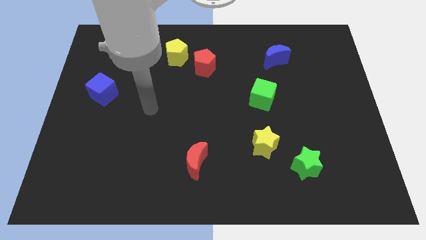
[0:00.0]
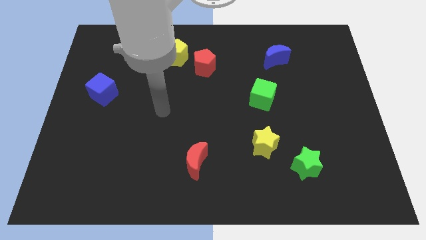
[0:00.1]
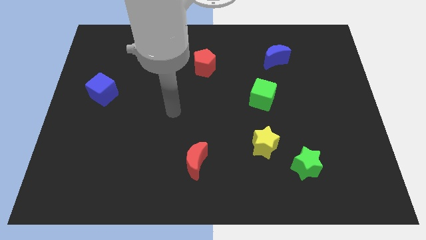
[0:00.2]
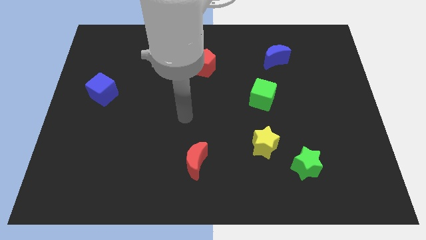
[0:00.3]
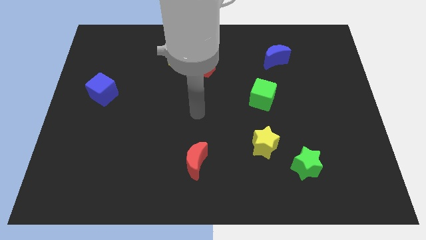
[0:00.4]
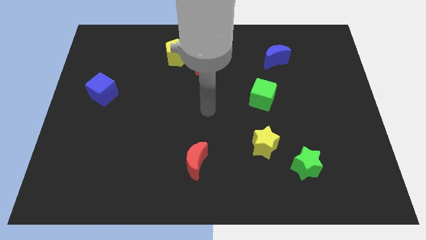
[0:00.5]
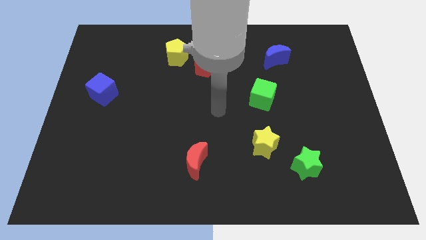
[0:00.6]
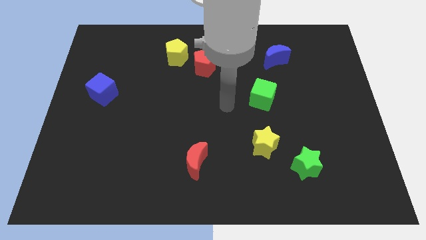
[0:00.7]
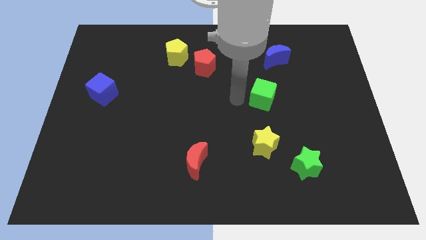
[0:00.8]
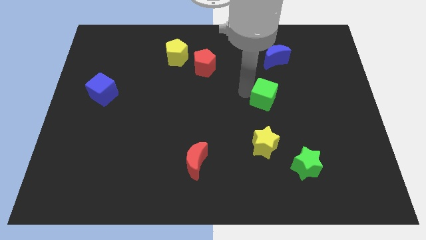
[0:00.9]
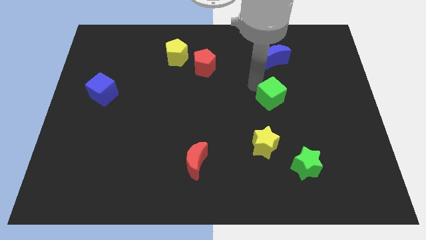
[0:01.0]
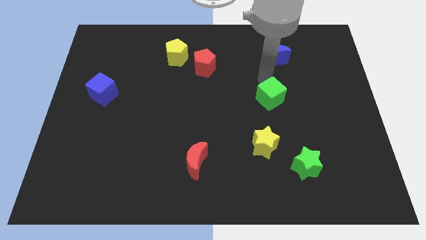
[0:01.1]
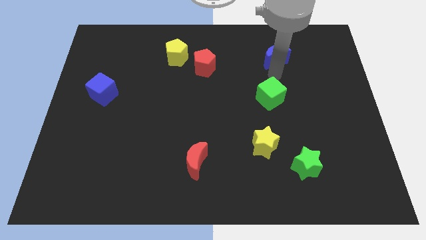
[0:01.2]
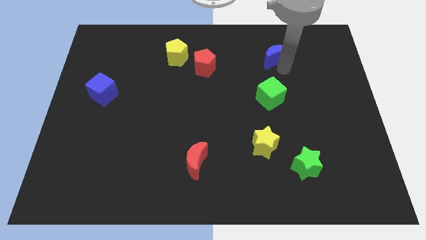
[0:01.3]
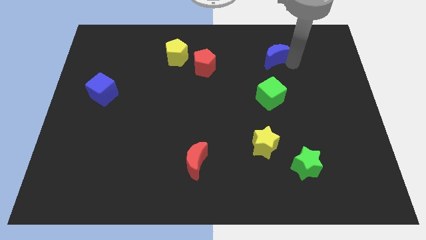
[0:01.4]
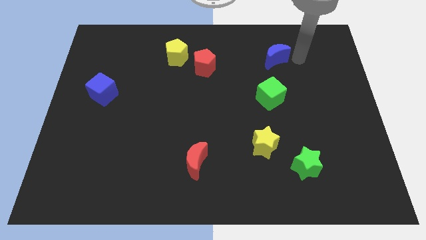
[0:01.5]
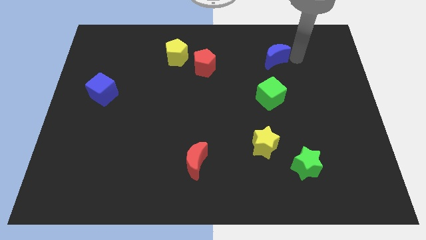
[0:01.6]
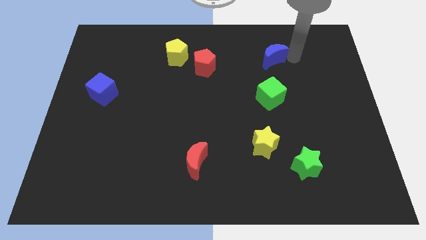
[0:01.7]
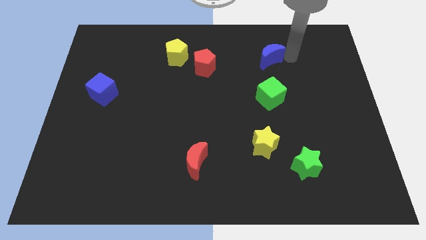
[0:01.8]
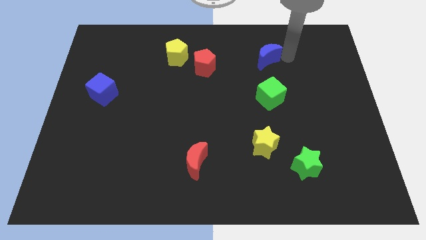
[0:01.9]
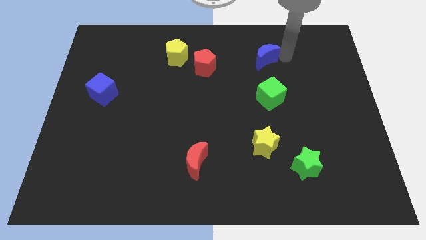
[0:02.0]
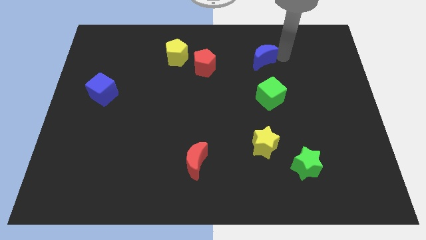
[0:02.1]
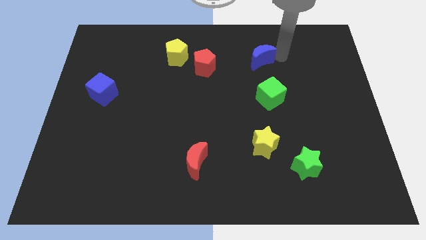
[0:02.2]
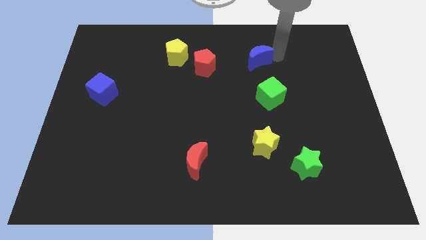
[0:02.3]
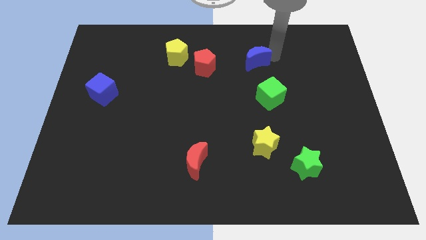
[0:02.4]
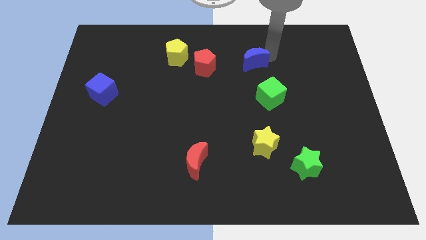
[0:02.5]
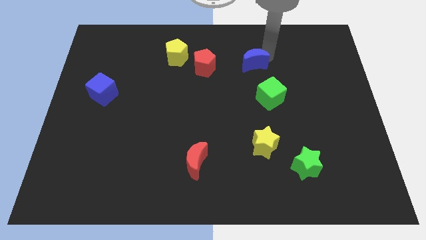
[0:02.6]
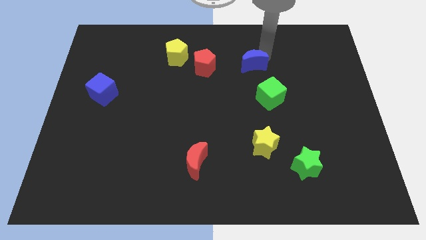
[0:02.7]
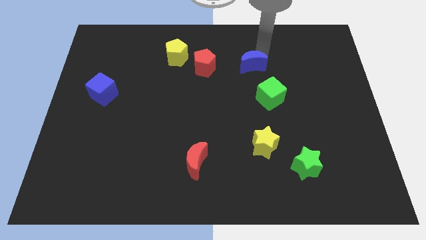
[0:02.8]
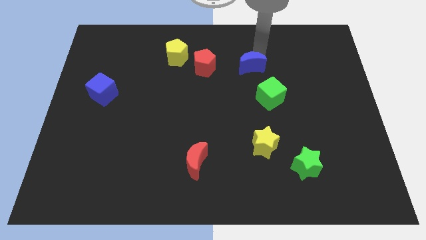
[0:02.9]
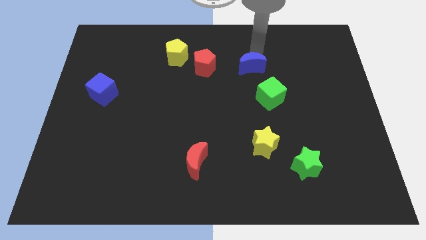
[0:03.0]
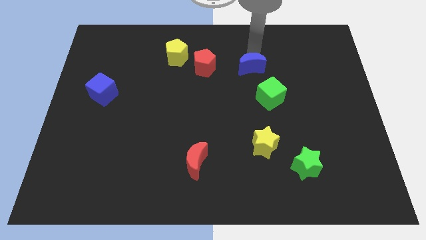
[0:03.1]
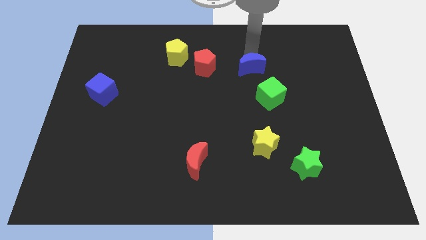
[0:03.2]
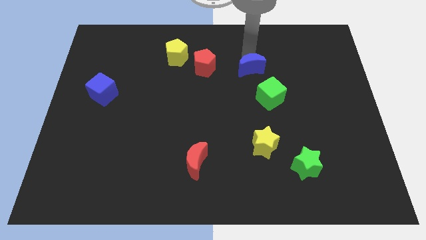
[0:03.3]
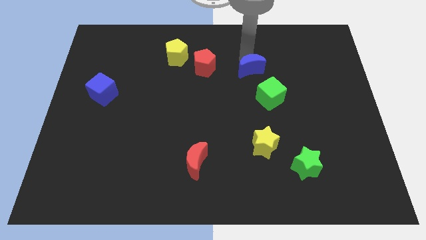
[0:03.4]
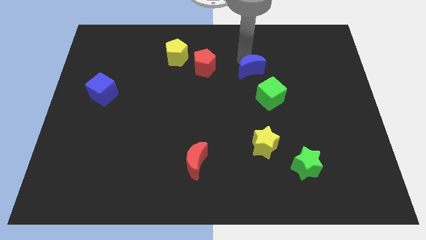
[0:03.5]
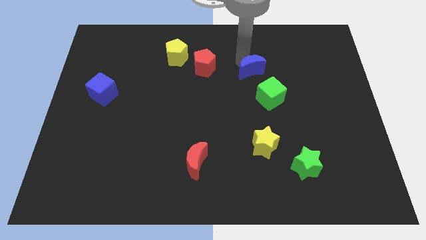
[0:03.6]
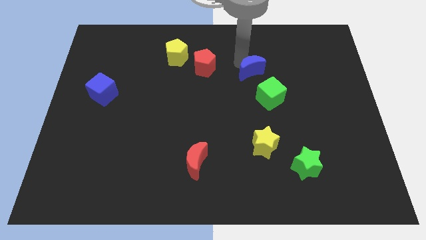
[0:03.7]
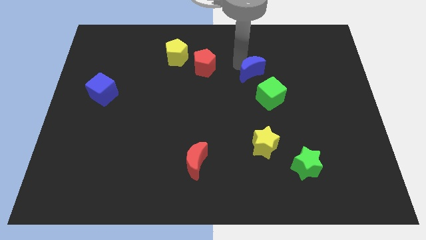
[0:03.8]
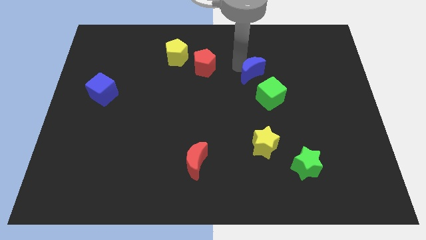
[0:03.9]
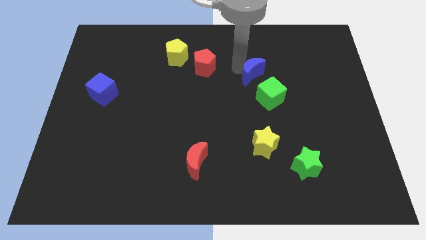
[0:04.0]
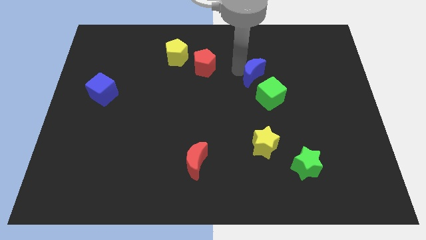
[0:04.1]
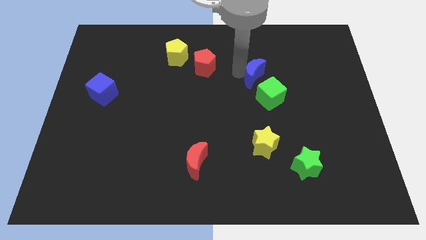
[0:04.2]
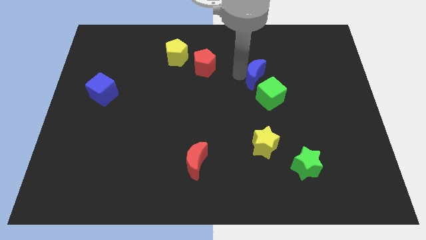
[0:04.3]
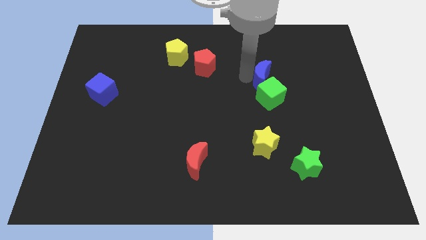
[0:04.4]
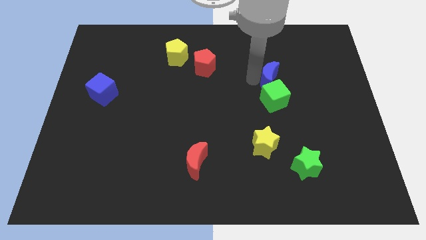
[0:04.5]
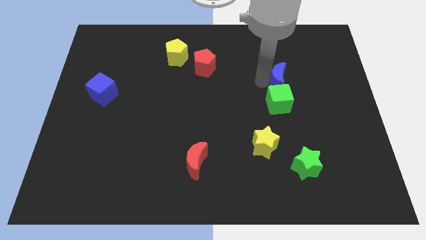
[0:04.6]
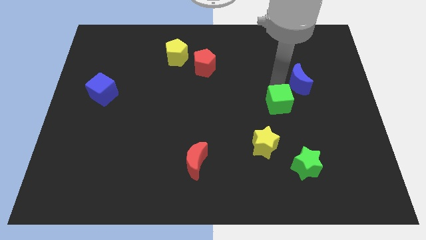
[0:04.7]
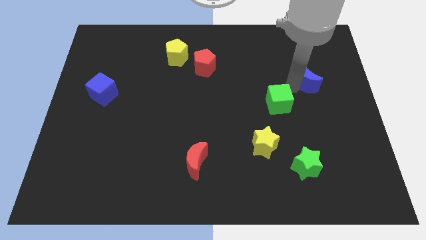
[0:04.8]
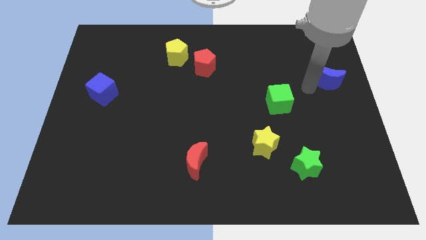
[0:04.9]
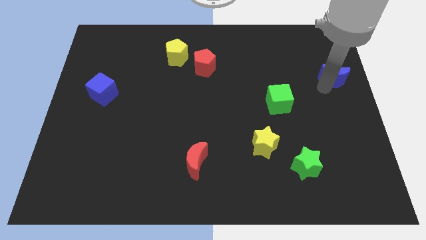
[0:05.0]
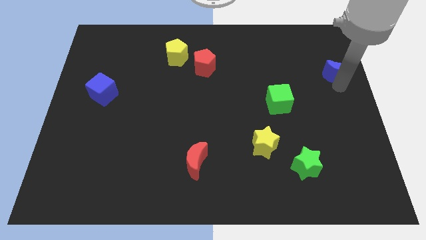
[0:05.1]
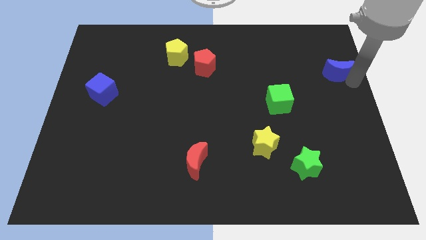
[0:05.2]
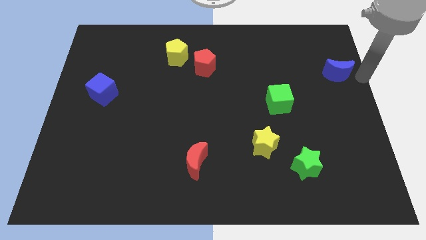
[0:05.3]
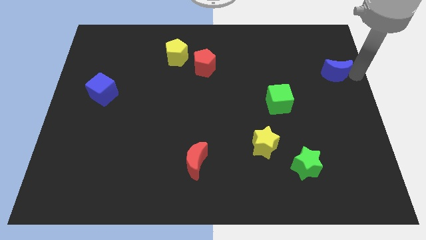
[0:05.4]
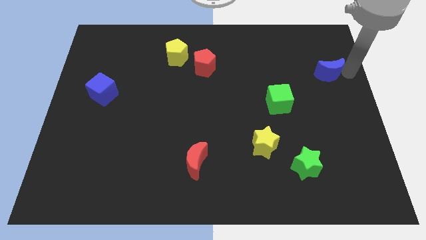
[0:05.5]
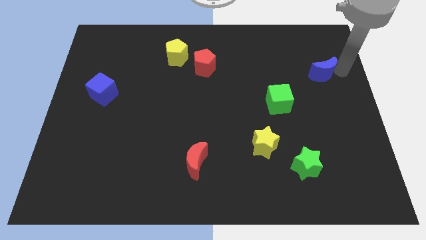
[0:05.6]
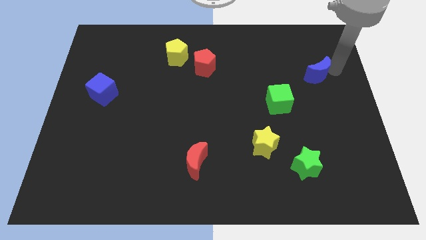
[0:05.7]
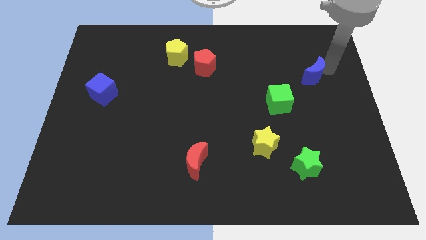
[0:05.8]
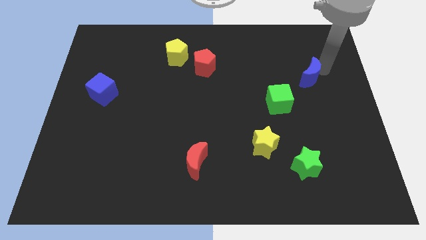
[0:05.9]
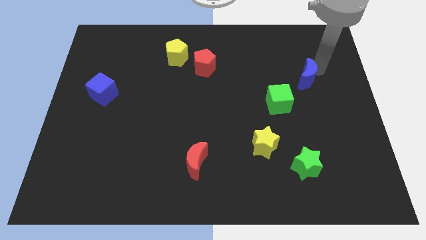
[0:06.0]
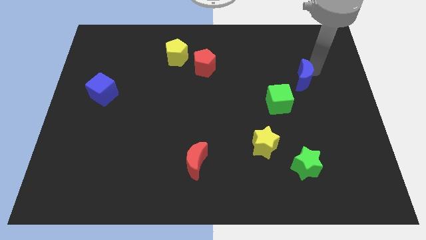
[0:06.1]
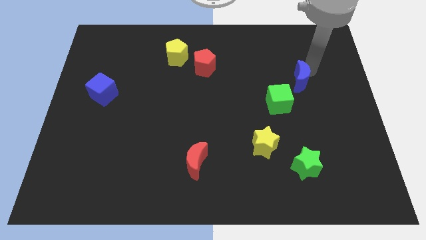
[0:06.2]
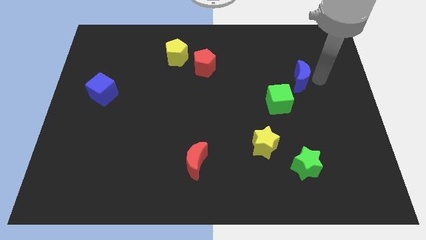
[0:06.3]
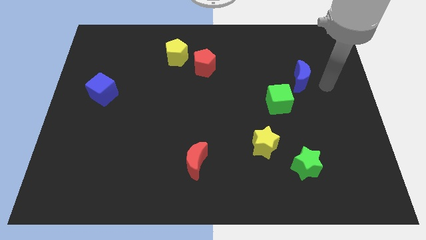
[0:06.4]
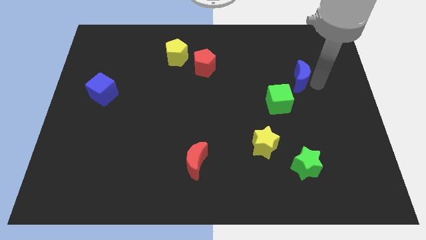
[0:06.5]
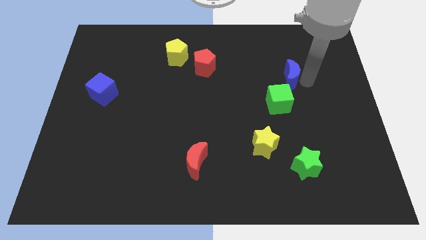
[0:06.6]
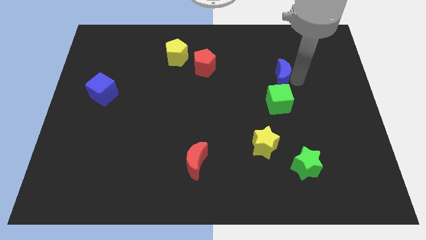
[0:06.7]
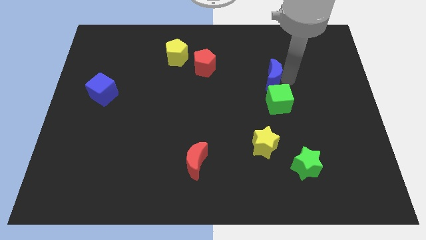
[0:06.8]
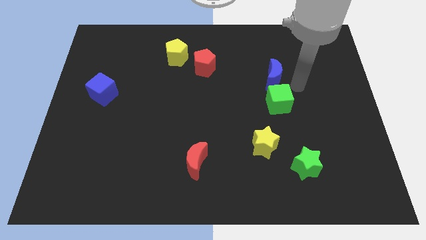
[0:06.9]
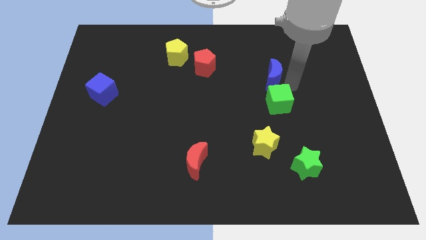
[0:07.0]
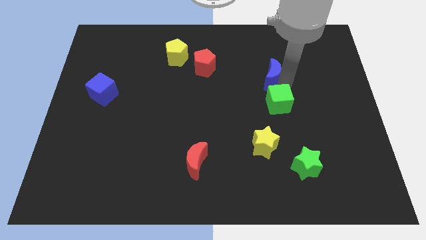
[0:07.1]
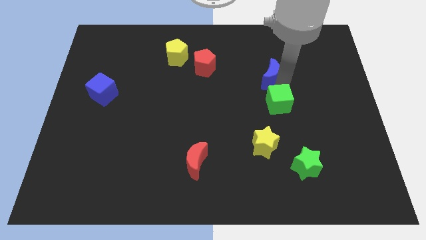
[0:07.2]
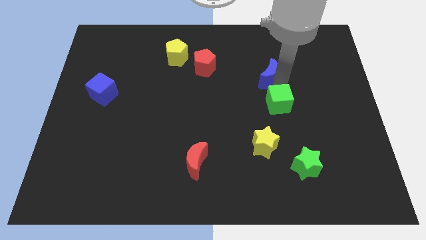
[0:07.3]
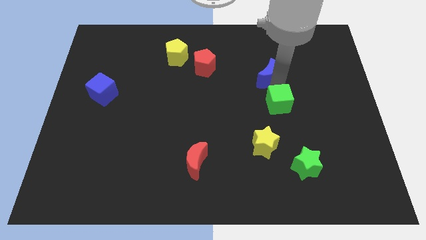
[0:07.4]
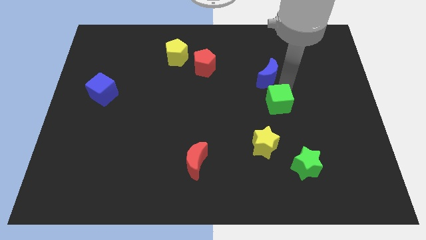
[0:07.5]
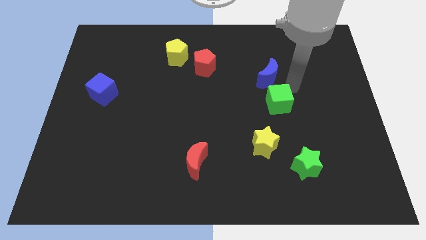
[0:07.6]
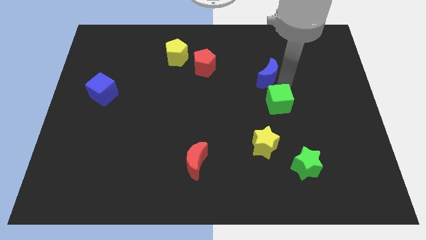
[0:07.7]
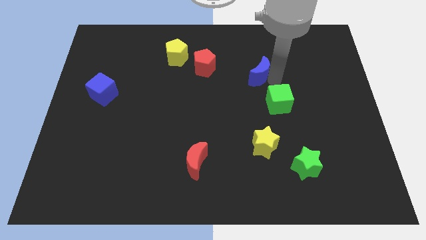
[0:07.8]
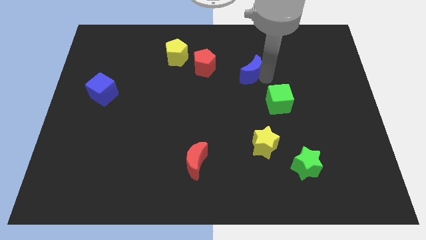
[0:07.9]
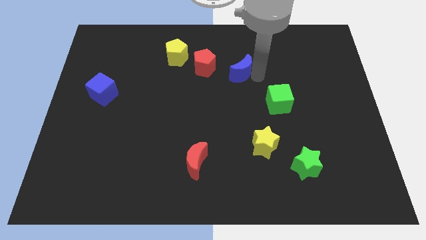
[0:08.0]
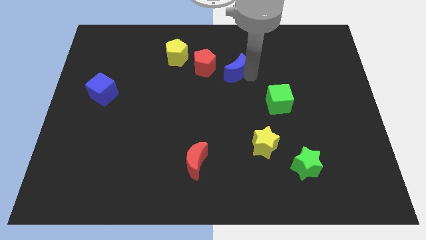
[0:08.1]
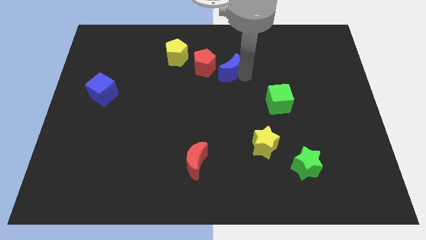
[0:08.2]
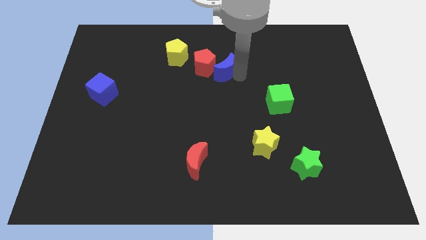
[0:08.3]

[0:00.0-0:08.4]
put the blue moon towards the red pentagon
